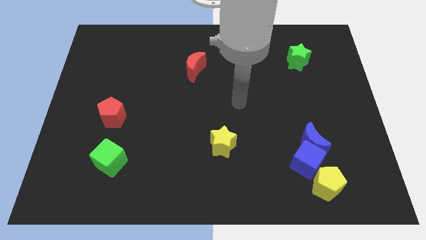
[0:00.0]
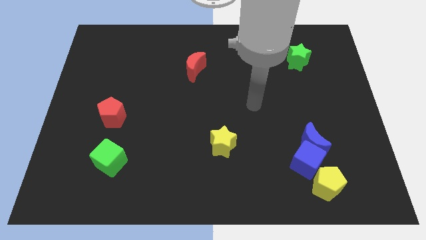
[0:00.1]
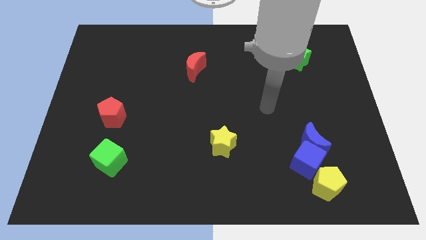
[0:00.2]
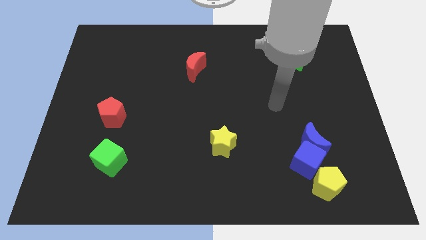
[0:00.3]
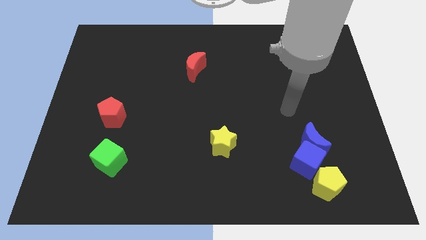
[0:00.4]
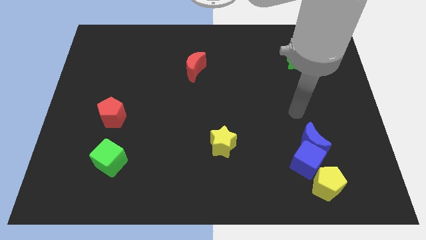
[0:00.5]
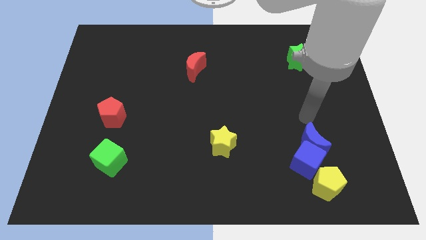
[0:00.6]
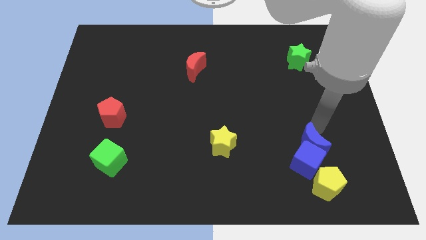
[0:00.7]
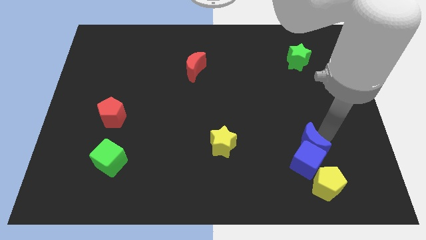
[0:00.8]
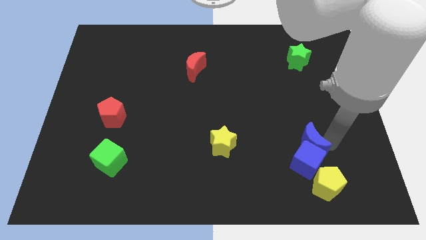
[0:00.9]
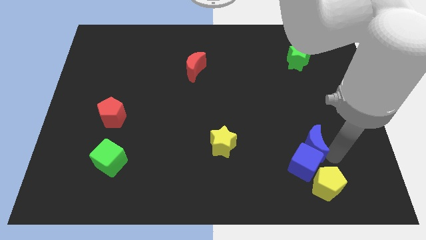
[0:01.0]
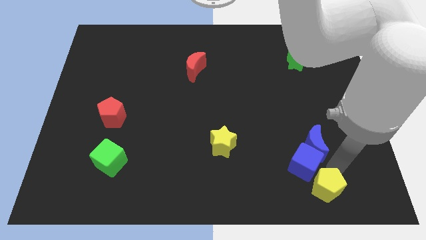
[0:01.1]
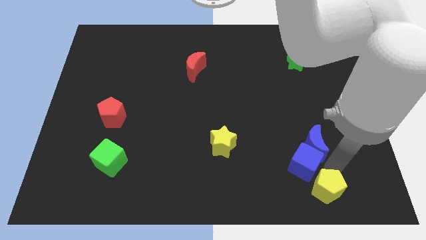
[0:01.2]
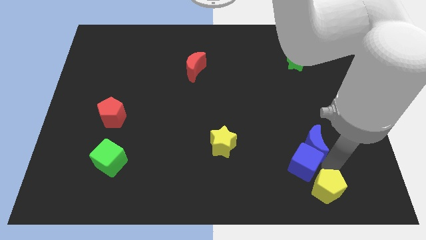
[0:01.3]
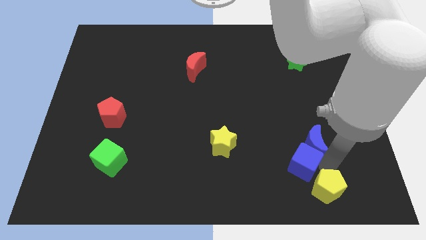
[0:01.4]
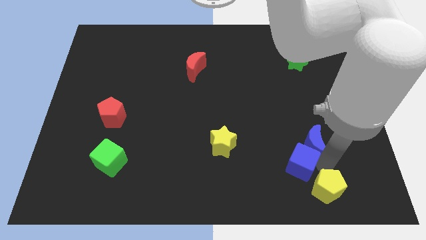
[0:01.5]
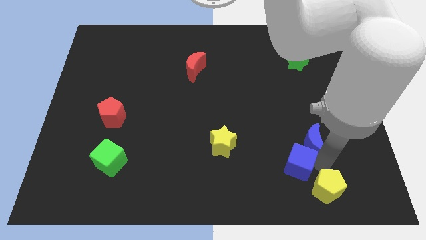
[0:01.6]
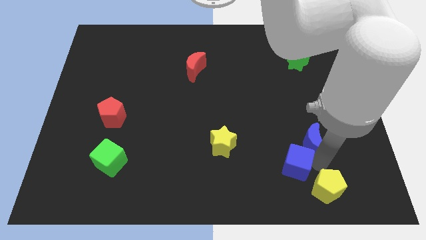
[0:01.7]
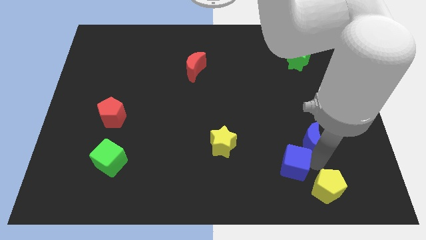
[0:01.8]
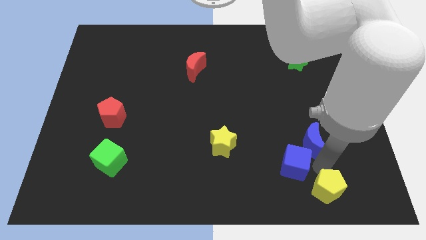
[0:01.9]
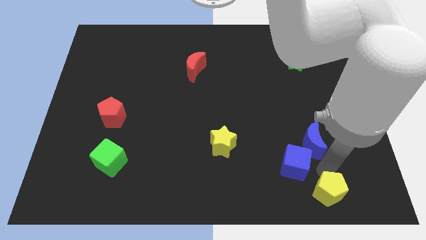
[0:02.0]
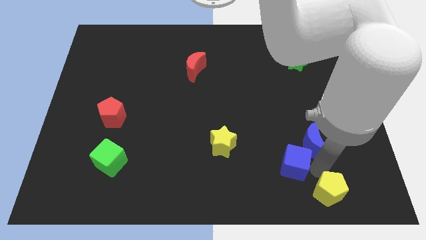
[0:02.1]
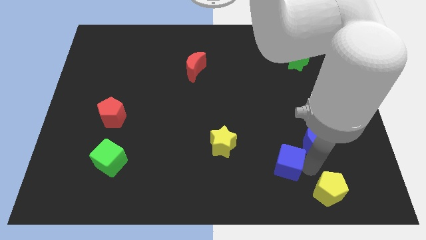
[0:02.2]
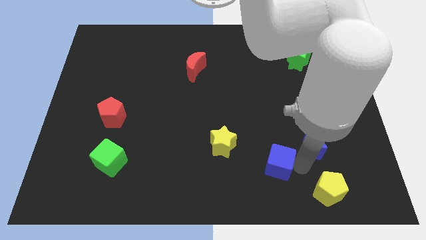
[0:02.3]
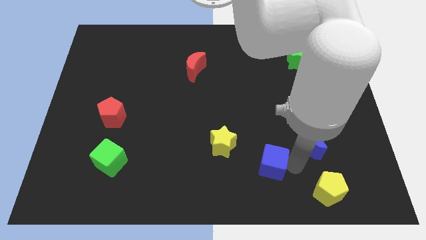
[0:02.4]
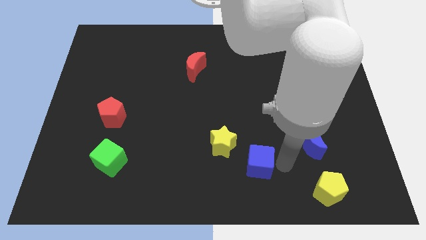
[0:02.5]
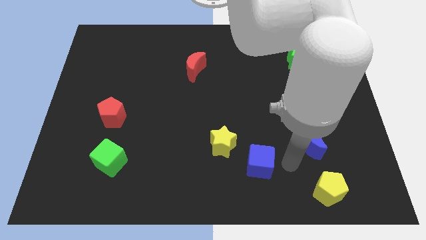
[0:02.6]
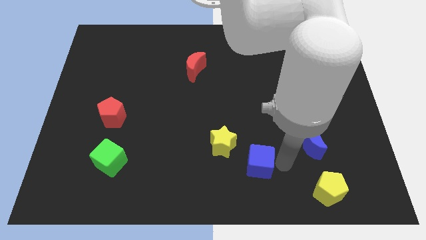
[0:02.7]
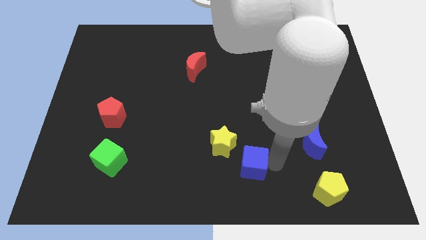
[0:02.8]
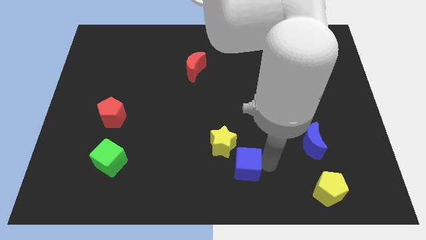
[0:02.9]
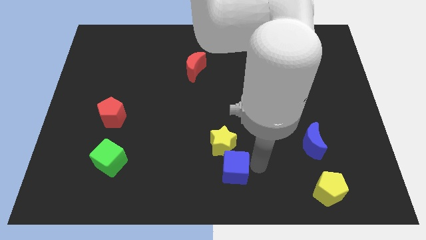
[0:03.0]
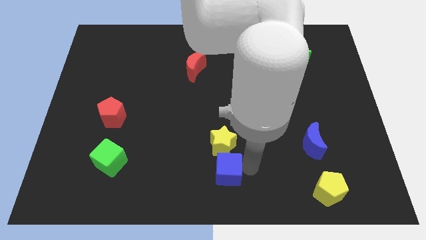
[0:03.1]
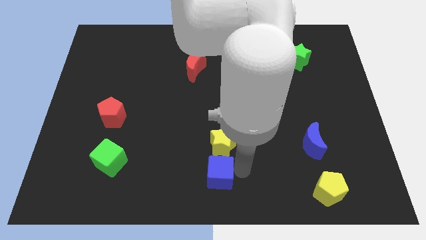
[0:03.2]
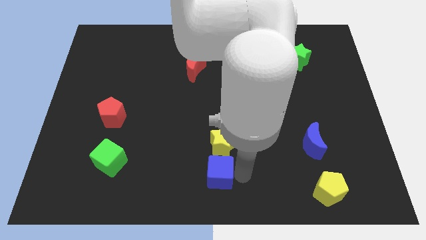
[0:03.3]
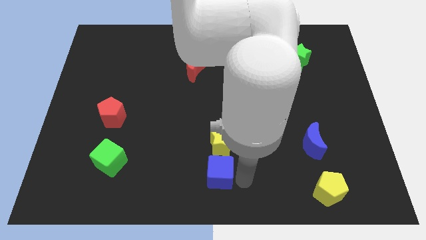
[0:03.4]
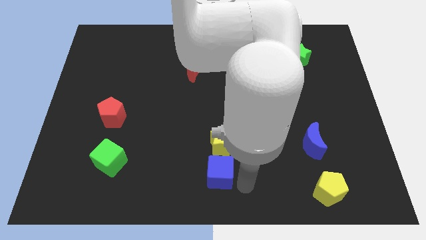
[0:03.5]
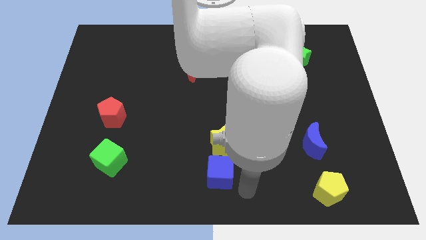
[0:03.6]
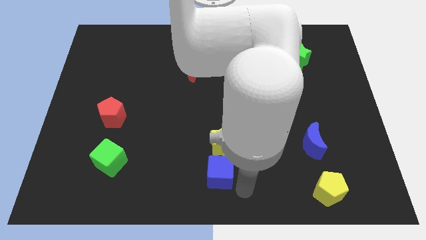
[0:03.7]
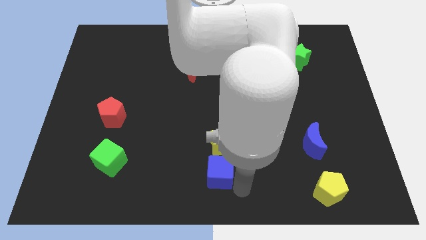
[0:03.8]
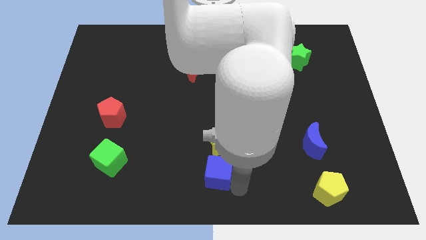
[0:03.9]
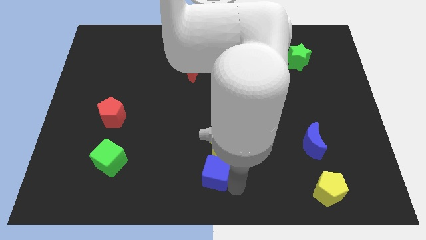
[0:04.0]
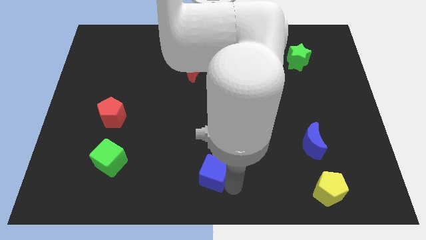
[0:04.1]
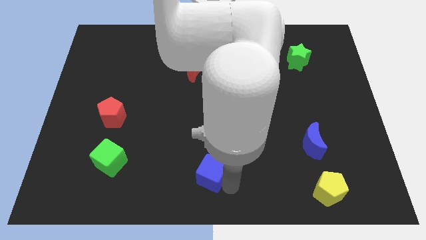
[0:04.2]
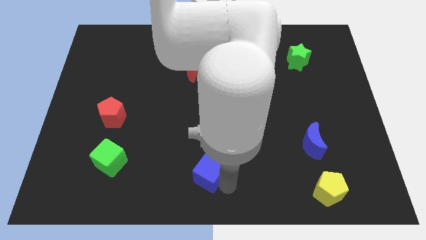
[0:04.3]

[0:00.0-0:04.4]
move the blue cube to the left

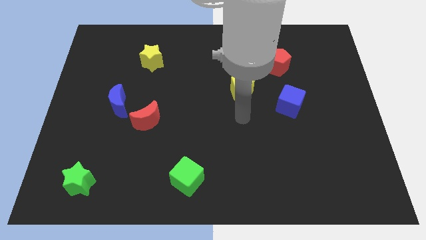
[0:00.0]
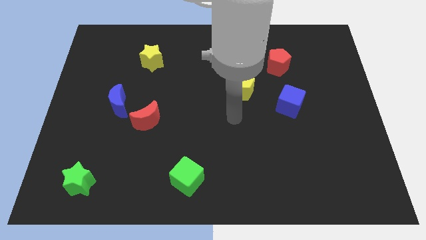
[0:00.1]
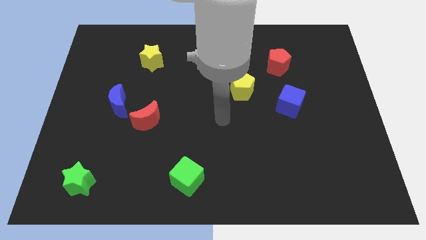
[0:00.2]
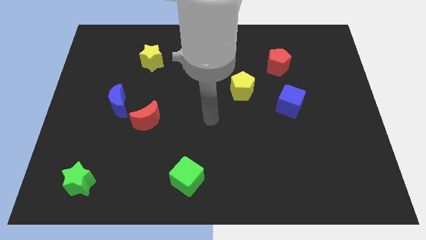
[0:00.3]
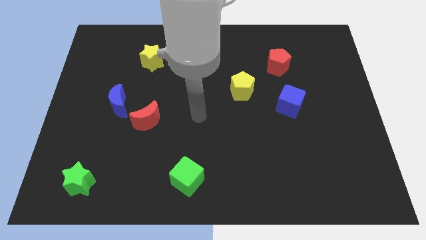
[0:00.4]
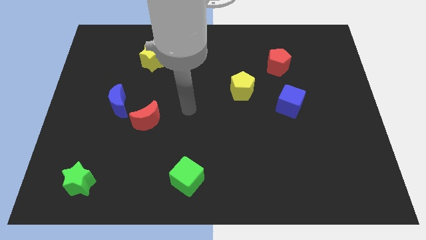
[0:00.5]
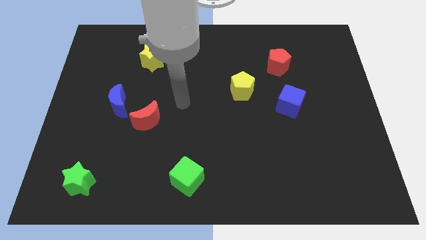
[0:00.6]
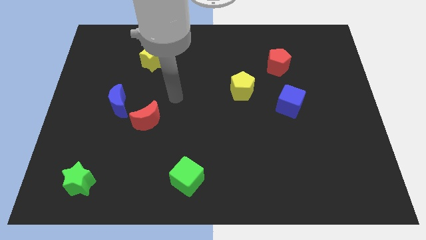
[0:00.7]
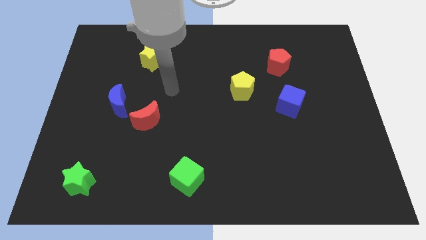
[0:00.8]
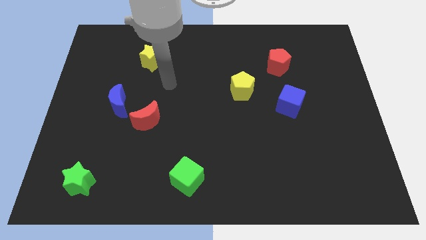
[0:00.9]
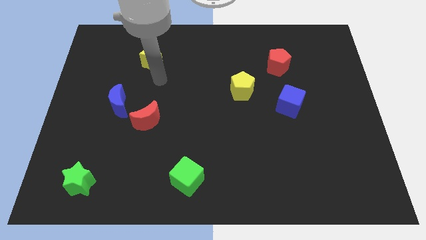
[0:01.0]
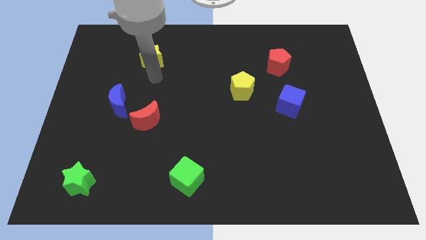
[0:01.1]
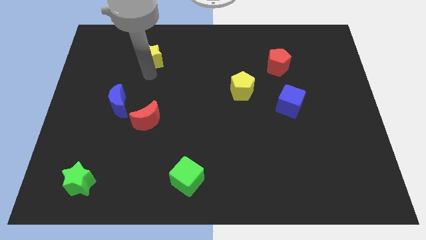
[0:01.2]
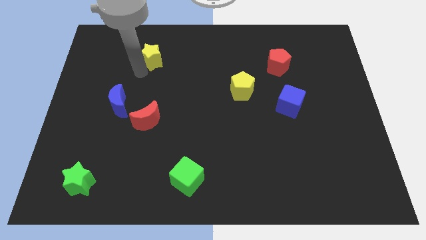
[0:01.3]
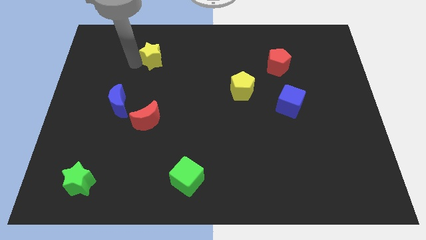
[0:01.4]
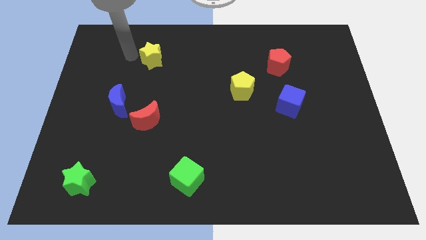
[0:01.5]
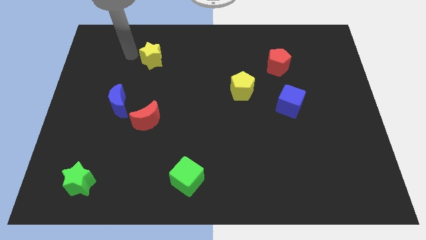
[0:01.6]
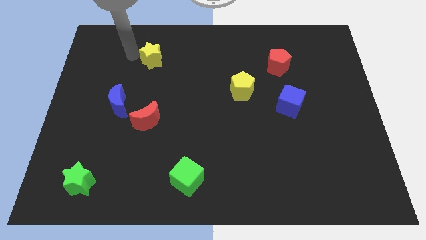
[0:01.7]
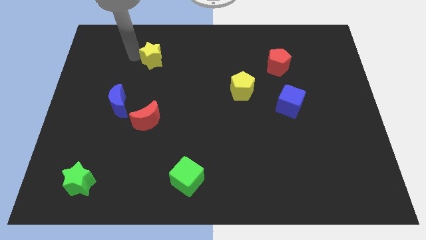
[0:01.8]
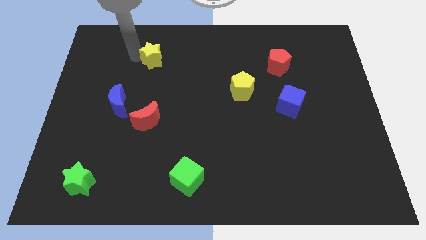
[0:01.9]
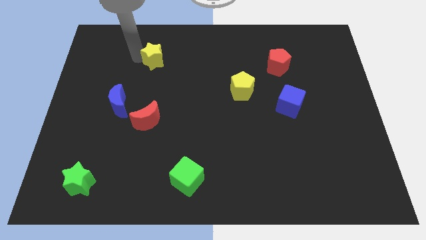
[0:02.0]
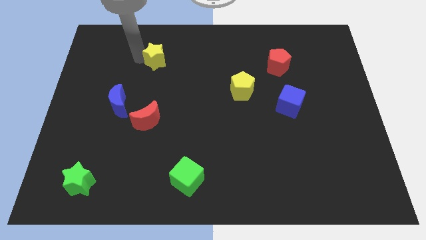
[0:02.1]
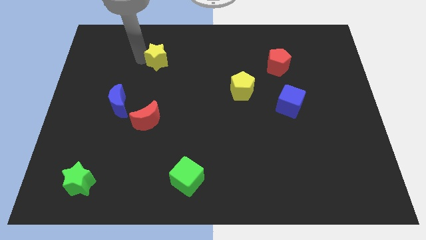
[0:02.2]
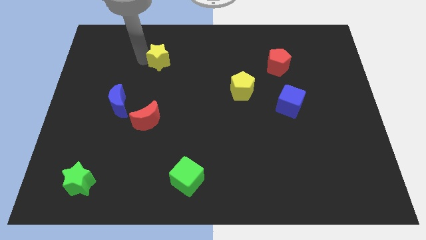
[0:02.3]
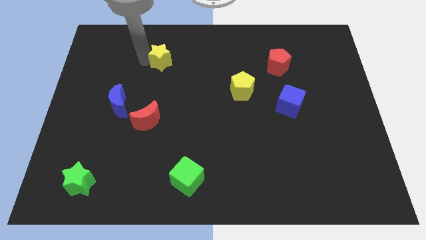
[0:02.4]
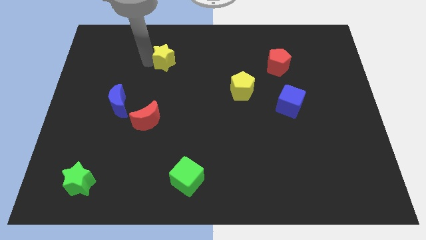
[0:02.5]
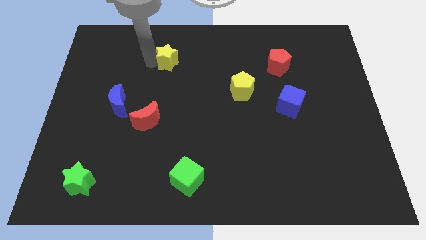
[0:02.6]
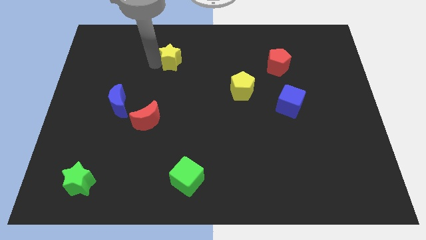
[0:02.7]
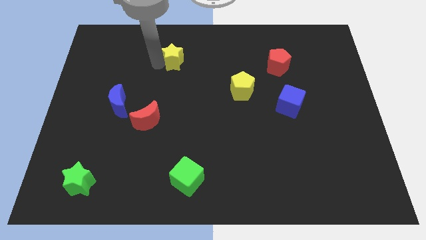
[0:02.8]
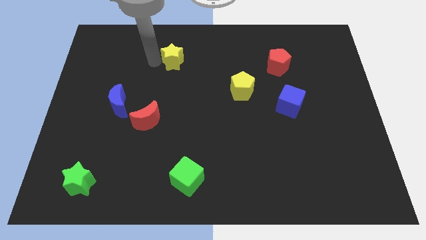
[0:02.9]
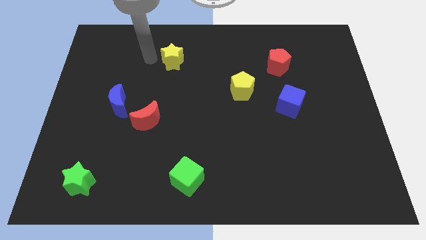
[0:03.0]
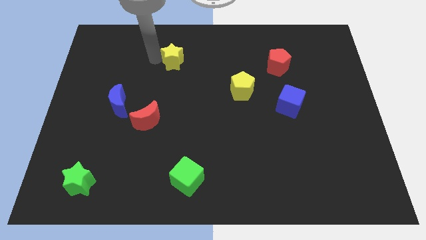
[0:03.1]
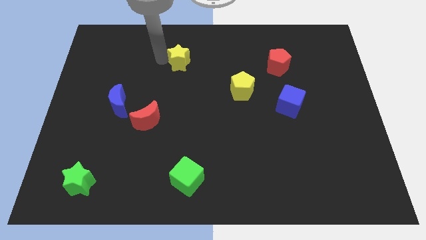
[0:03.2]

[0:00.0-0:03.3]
move the yellow star somewhat right

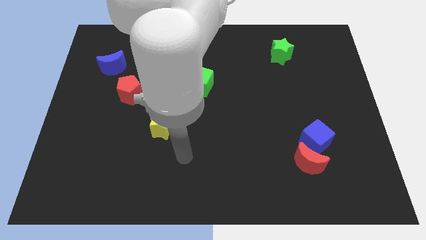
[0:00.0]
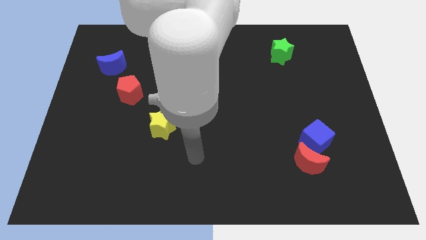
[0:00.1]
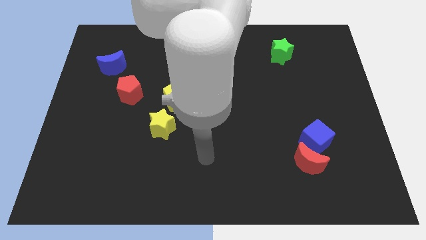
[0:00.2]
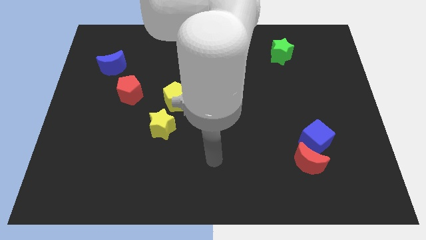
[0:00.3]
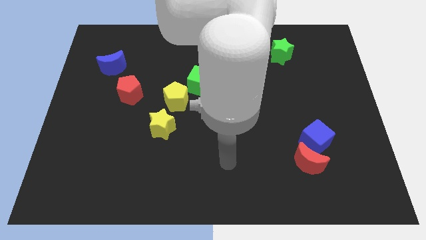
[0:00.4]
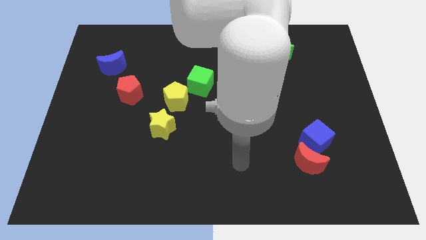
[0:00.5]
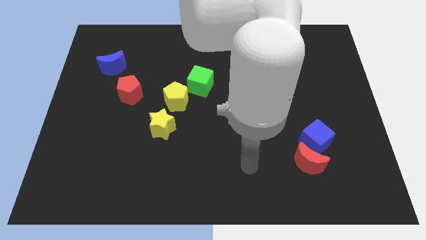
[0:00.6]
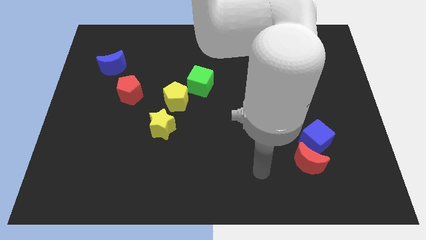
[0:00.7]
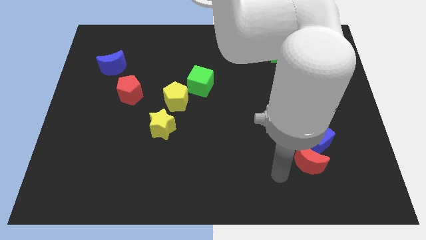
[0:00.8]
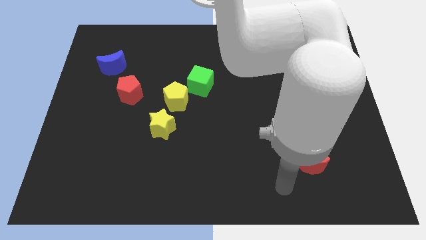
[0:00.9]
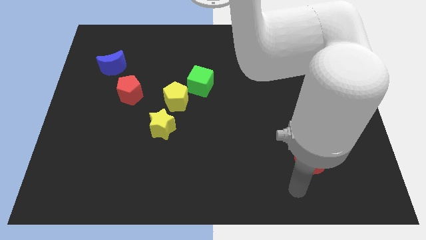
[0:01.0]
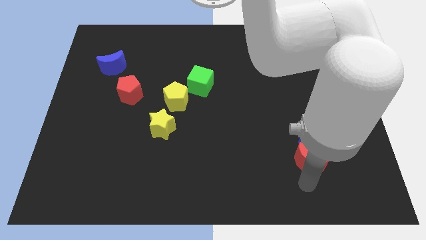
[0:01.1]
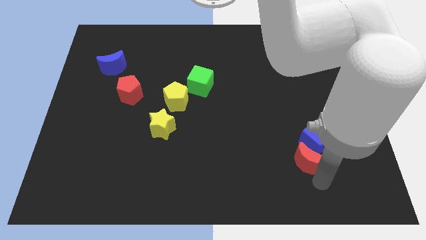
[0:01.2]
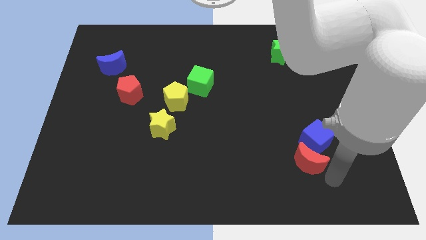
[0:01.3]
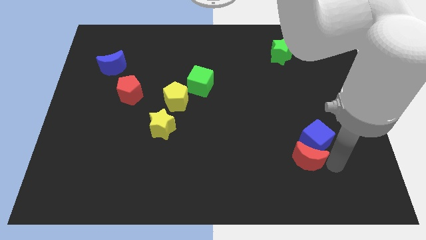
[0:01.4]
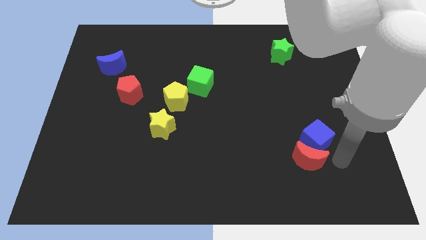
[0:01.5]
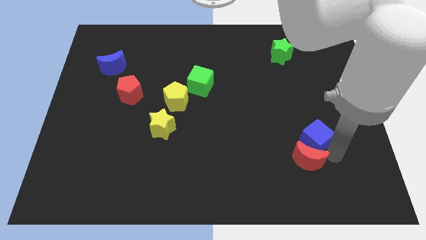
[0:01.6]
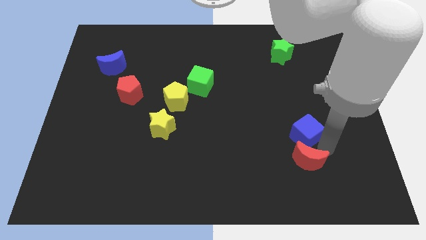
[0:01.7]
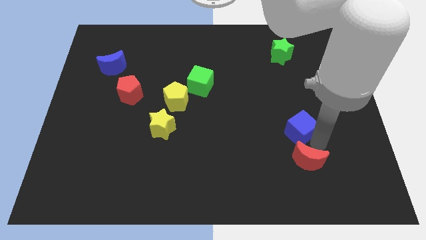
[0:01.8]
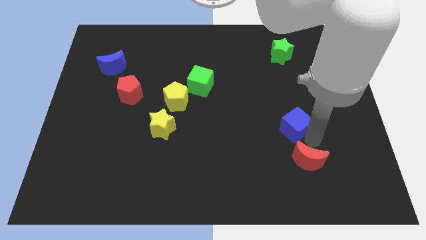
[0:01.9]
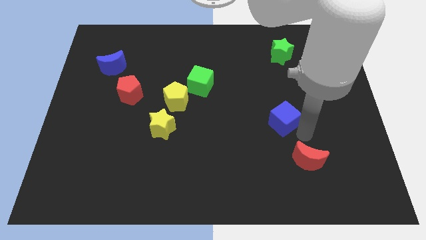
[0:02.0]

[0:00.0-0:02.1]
slide the blue cube somewhat diagonally upwards and to the left
